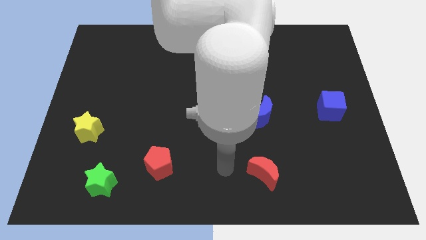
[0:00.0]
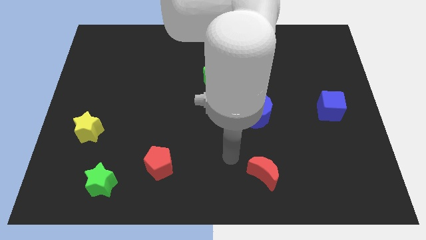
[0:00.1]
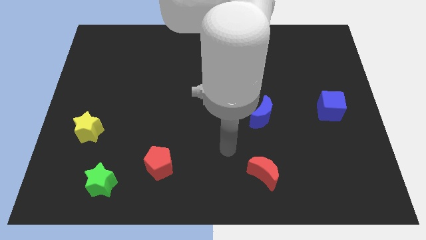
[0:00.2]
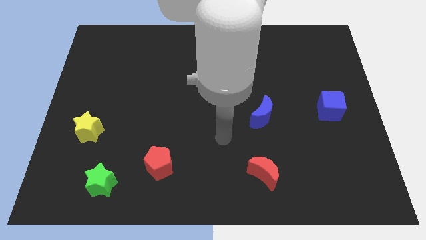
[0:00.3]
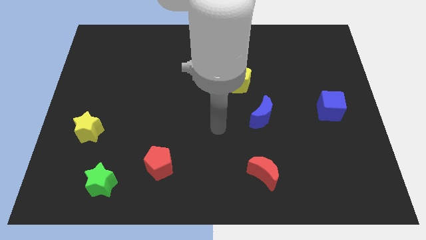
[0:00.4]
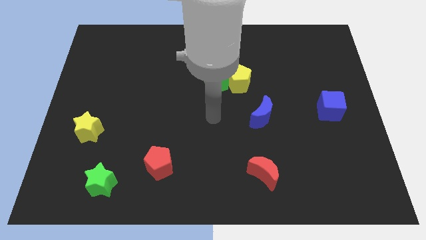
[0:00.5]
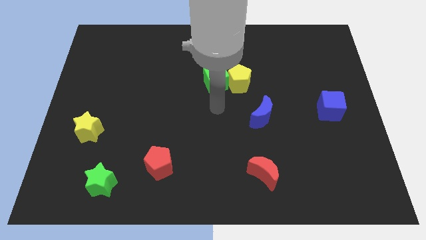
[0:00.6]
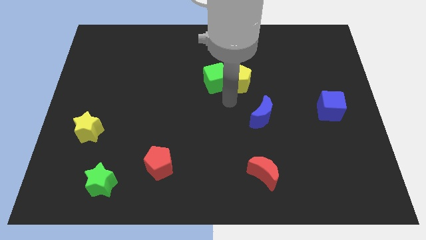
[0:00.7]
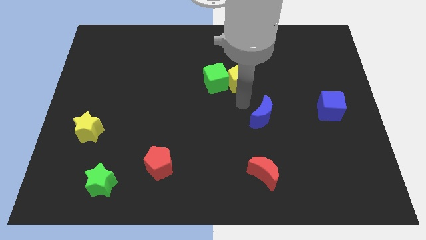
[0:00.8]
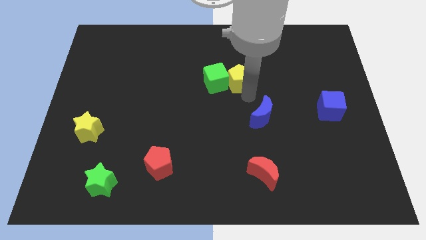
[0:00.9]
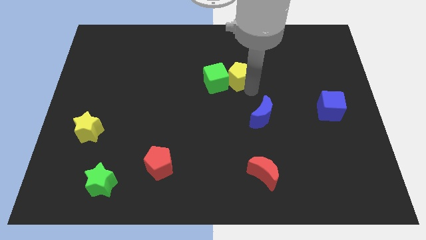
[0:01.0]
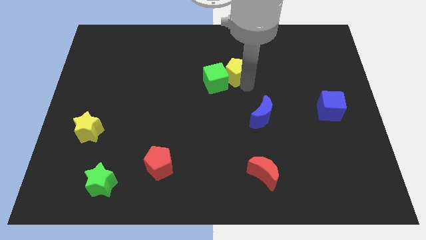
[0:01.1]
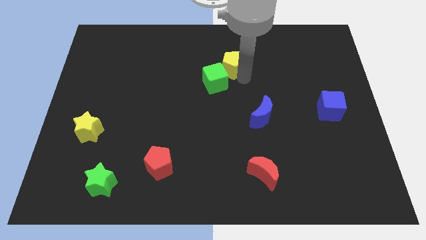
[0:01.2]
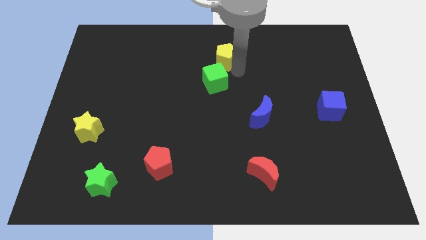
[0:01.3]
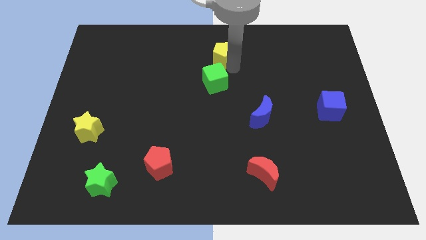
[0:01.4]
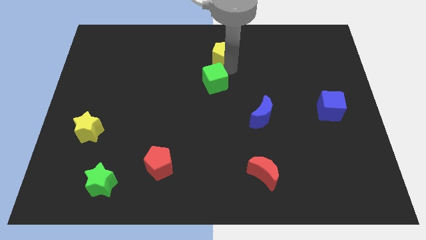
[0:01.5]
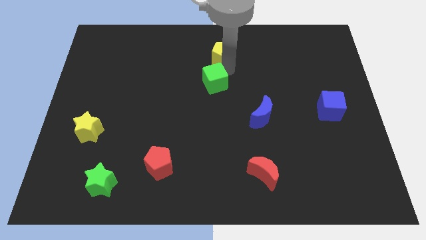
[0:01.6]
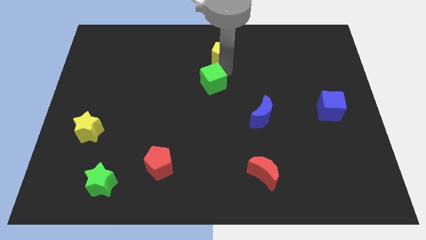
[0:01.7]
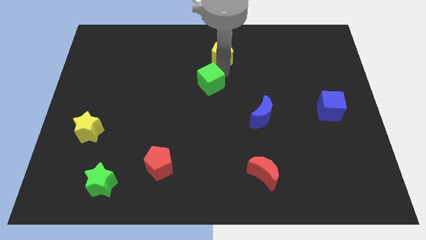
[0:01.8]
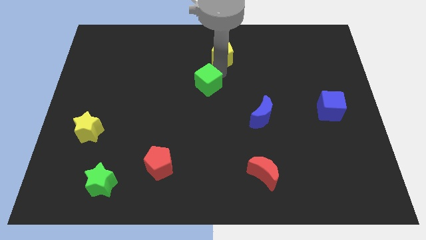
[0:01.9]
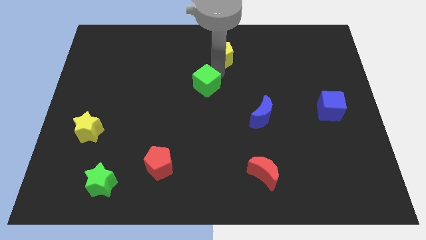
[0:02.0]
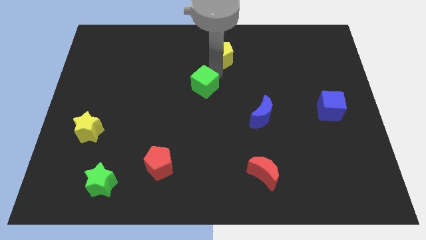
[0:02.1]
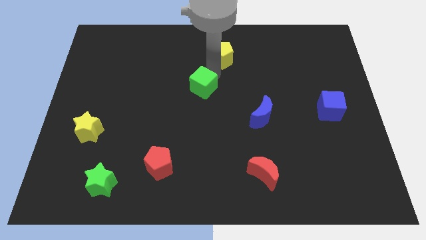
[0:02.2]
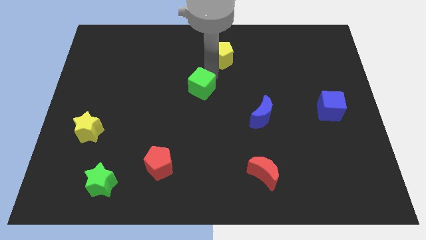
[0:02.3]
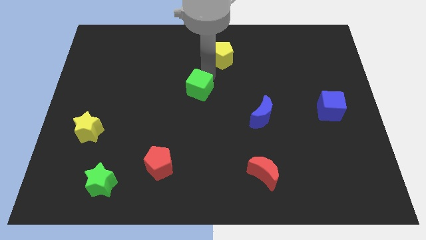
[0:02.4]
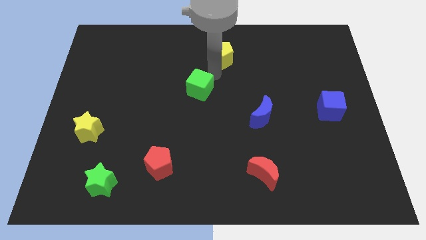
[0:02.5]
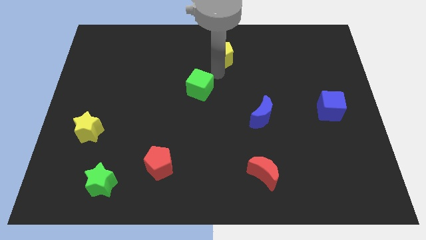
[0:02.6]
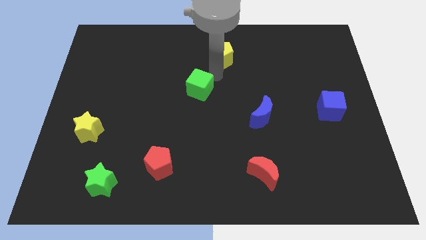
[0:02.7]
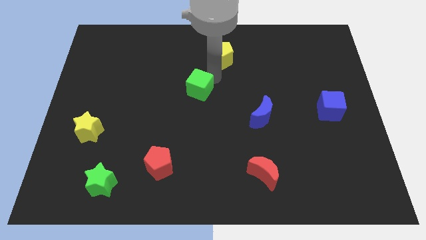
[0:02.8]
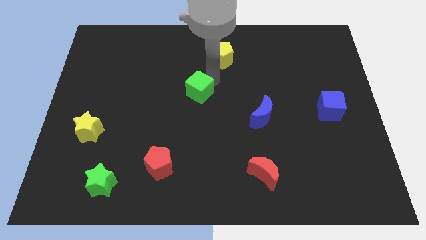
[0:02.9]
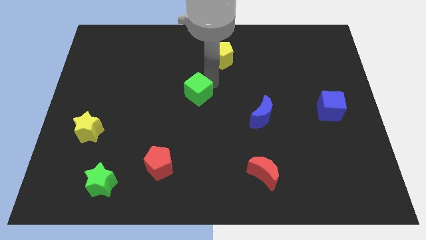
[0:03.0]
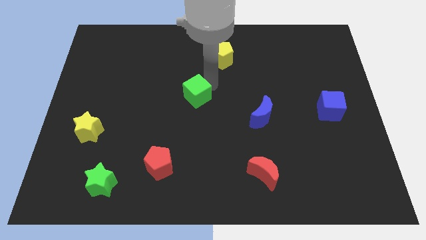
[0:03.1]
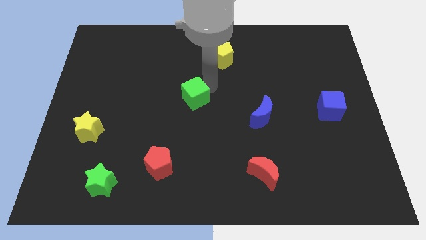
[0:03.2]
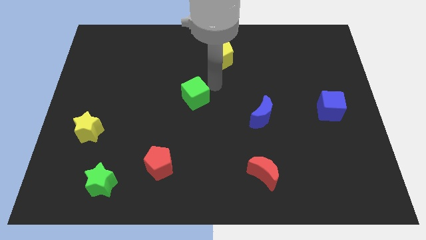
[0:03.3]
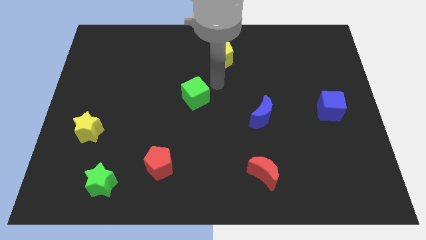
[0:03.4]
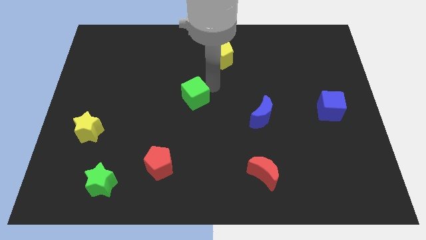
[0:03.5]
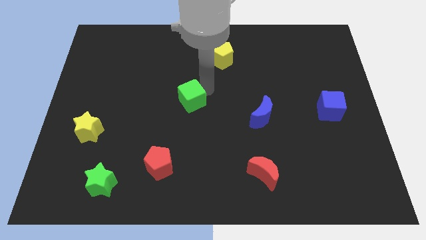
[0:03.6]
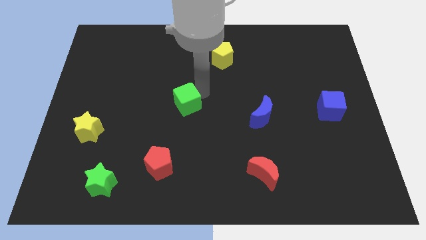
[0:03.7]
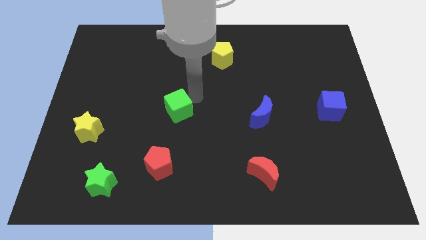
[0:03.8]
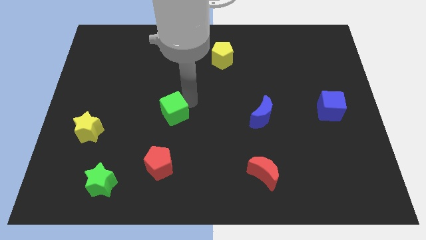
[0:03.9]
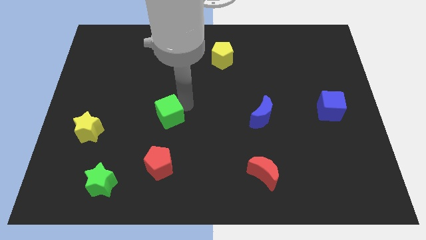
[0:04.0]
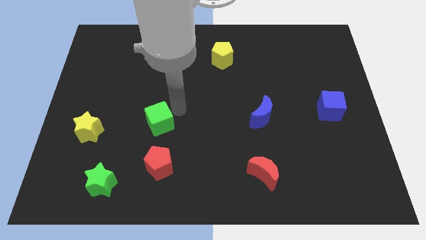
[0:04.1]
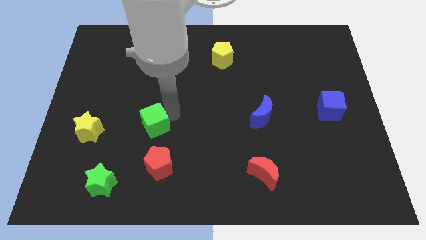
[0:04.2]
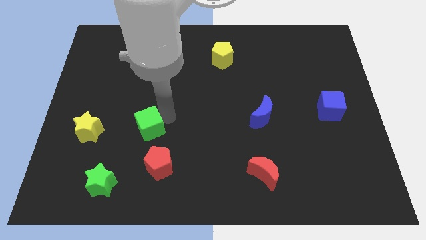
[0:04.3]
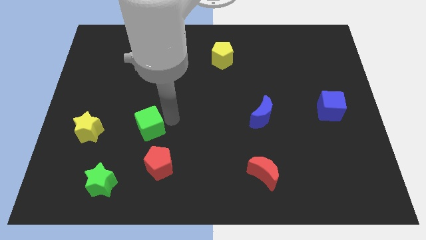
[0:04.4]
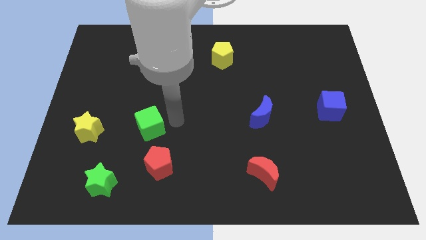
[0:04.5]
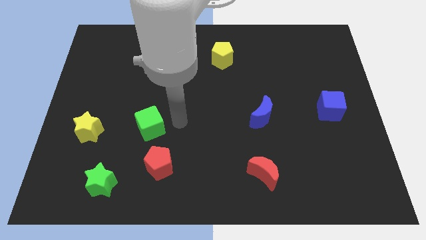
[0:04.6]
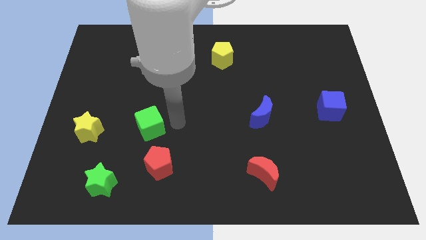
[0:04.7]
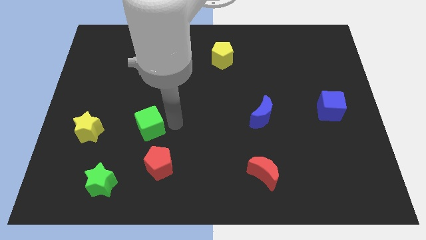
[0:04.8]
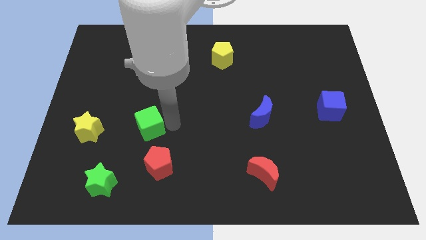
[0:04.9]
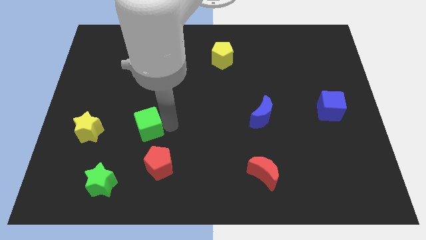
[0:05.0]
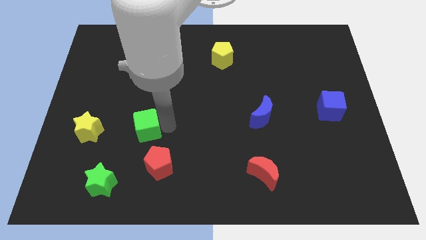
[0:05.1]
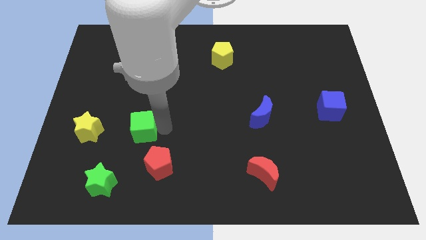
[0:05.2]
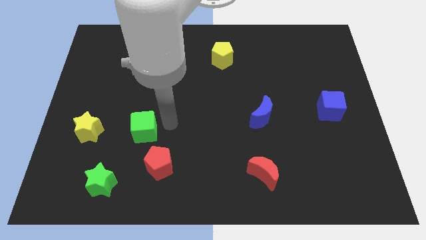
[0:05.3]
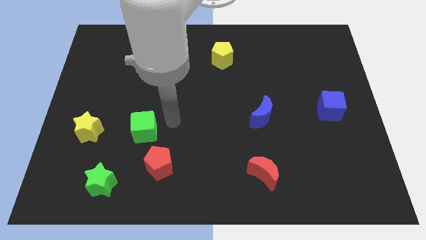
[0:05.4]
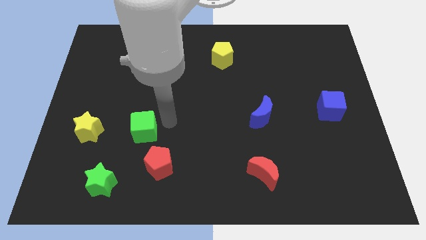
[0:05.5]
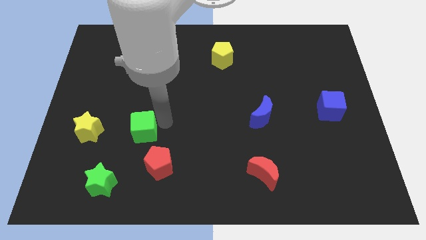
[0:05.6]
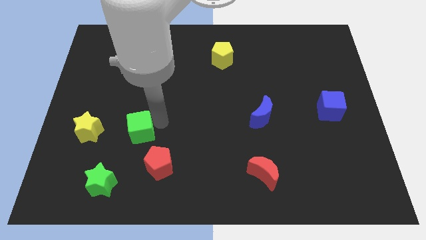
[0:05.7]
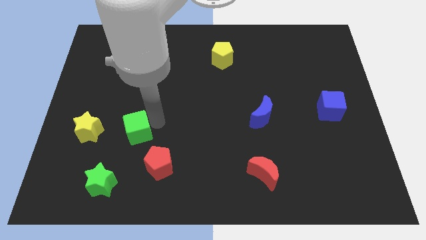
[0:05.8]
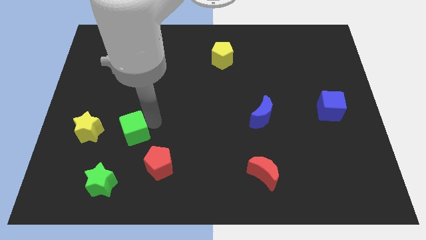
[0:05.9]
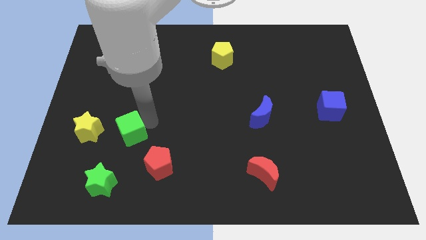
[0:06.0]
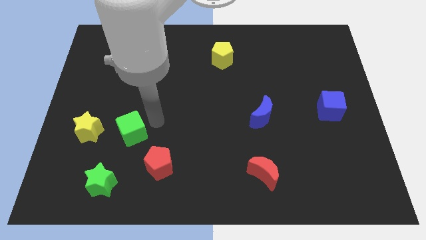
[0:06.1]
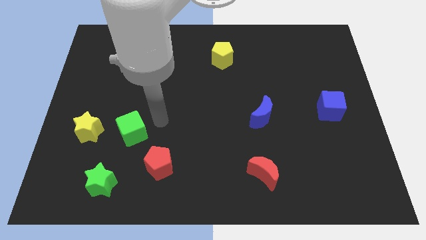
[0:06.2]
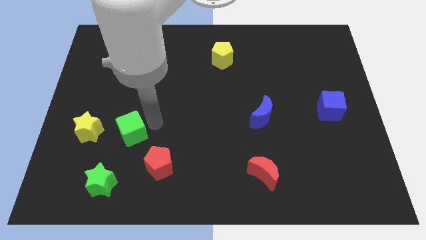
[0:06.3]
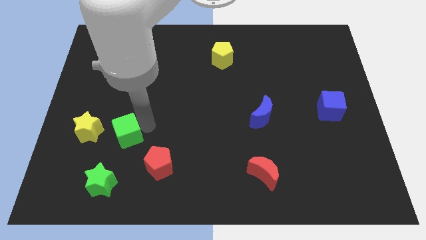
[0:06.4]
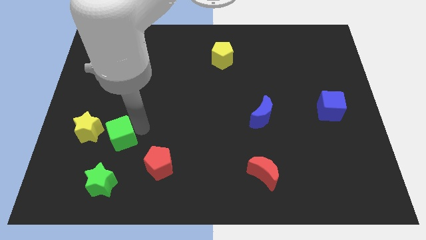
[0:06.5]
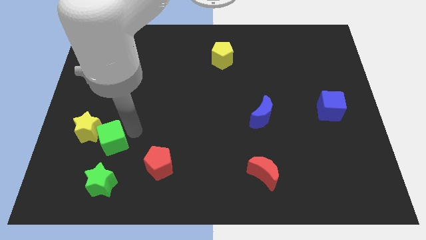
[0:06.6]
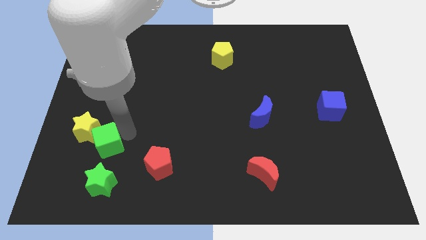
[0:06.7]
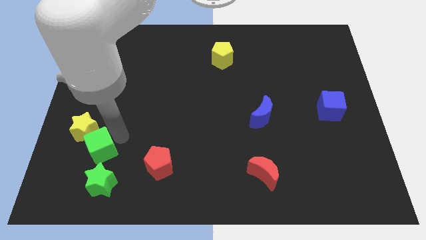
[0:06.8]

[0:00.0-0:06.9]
move the green cube to the top left side of the green star

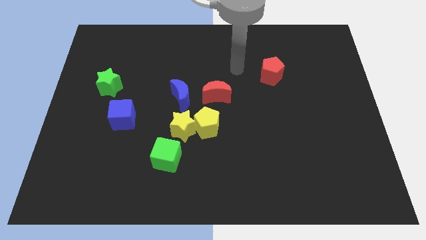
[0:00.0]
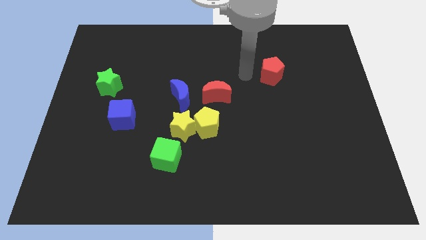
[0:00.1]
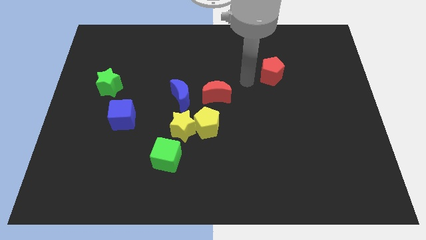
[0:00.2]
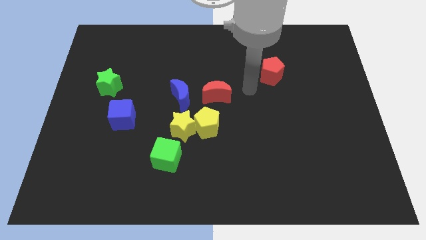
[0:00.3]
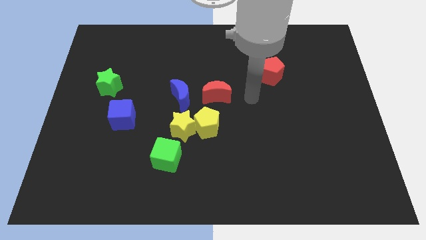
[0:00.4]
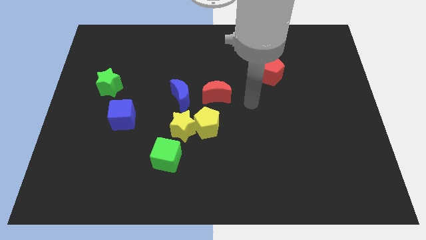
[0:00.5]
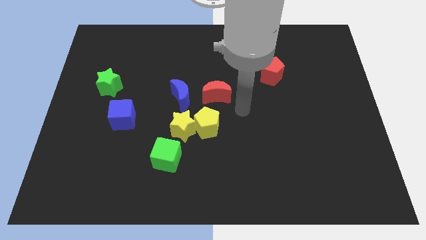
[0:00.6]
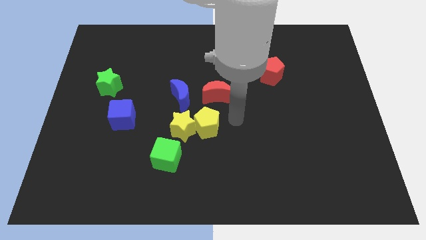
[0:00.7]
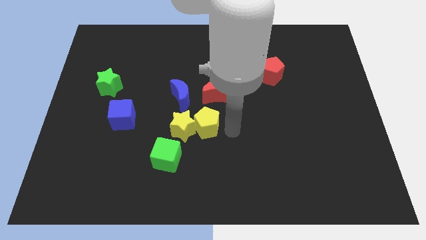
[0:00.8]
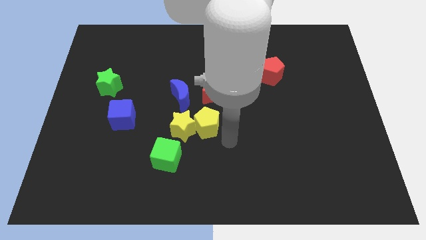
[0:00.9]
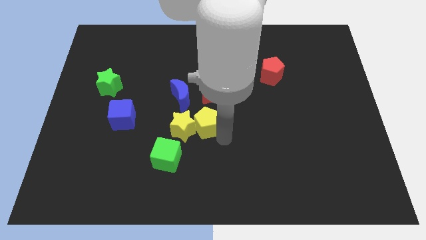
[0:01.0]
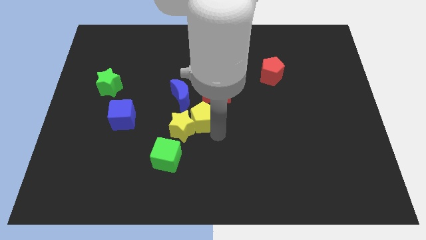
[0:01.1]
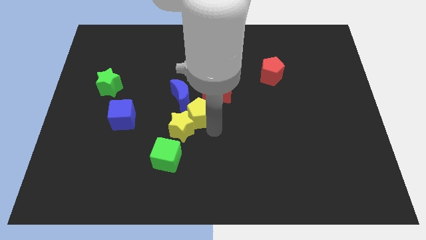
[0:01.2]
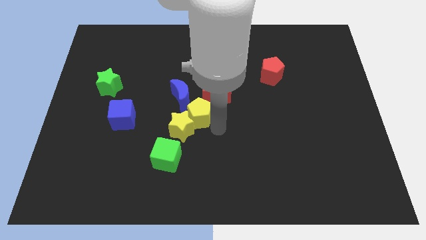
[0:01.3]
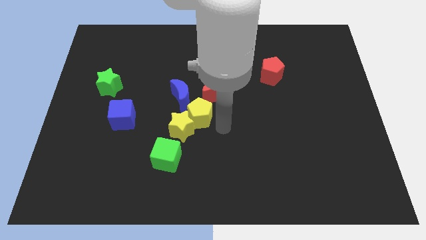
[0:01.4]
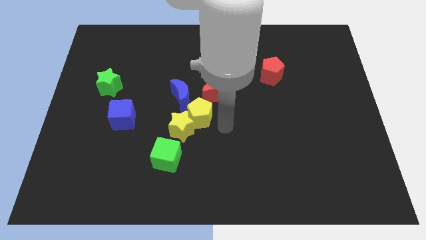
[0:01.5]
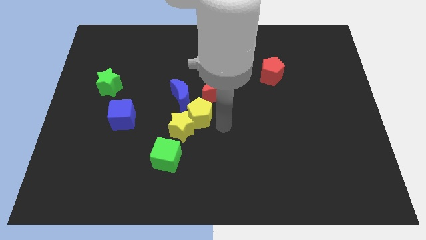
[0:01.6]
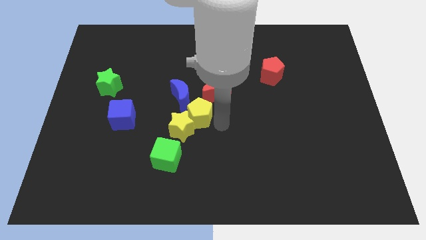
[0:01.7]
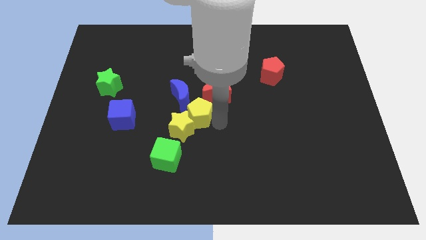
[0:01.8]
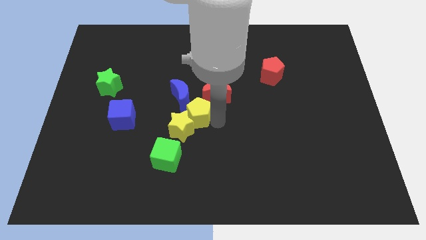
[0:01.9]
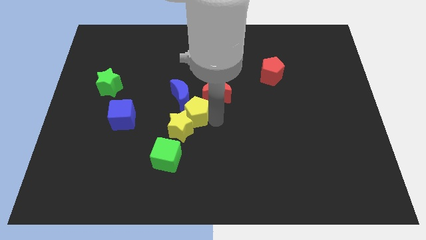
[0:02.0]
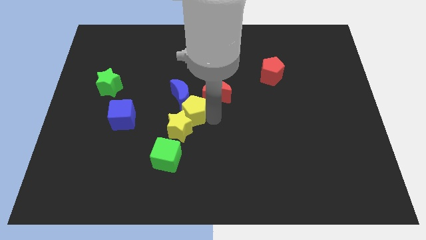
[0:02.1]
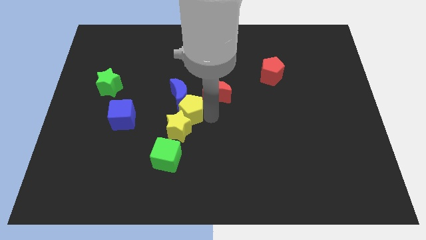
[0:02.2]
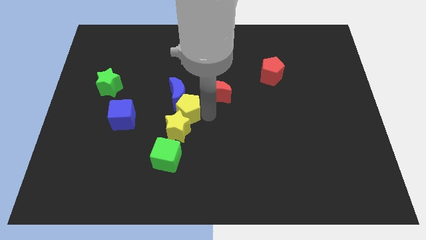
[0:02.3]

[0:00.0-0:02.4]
push the yellow pentagon to the left of the red moon
